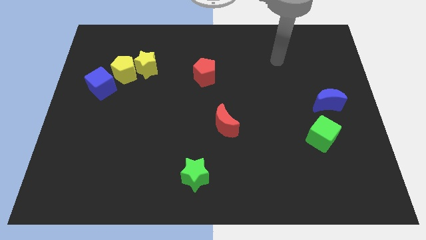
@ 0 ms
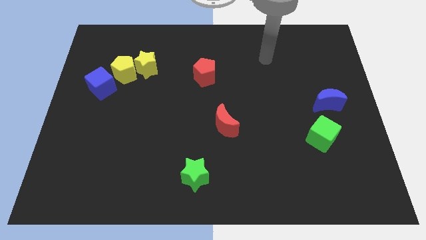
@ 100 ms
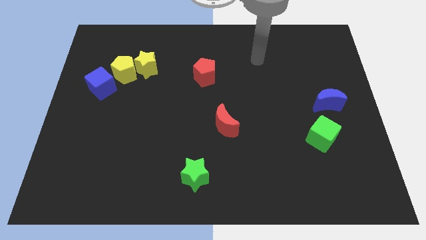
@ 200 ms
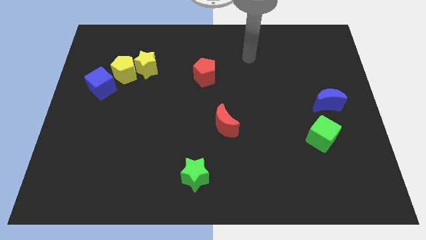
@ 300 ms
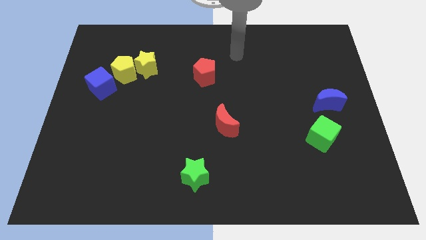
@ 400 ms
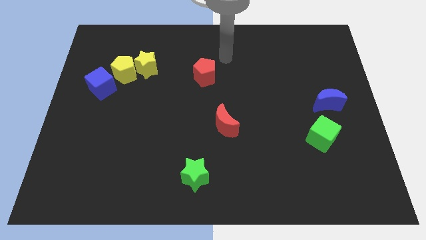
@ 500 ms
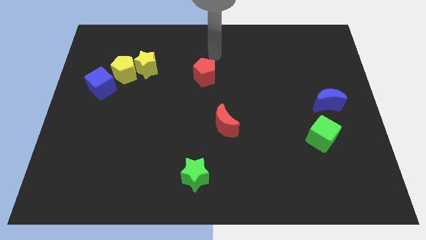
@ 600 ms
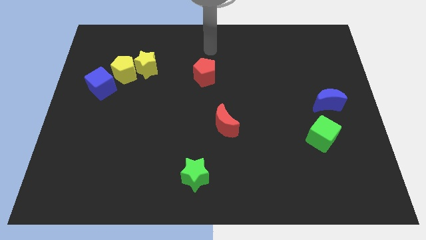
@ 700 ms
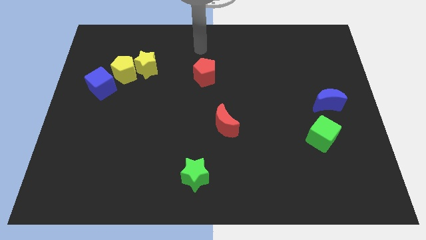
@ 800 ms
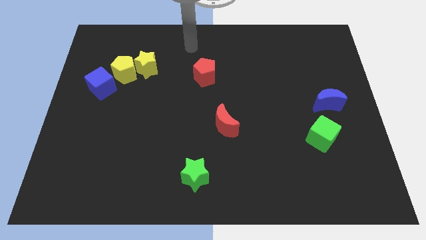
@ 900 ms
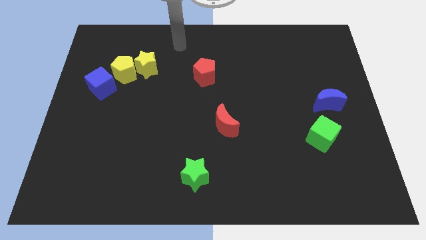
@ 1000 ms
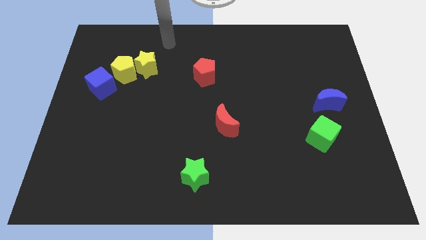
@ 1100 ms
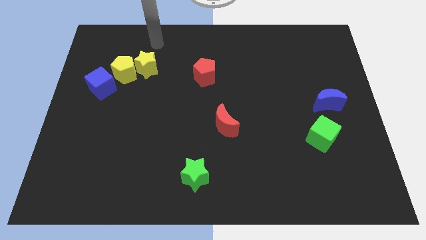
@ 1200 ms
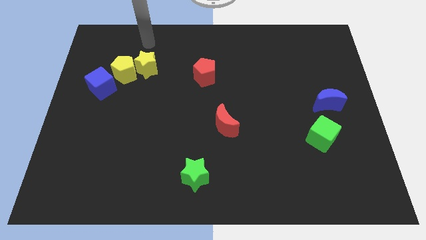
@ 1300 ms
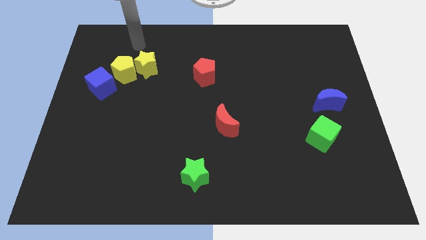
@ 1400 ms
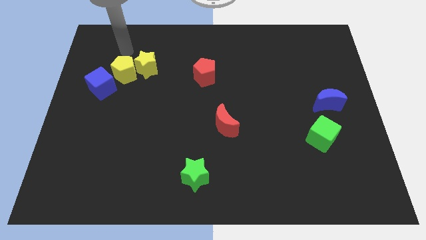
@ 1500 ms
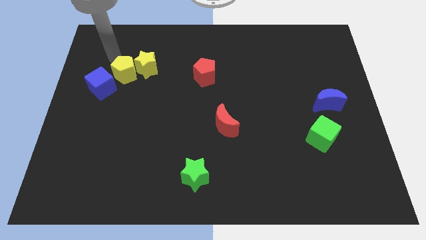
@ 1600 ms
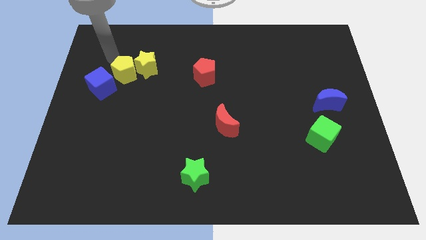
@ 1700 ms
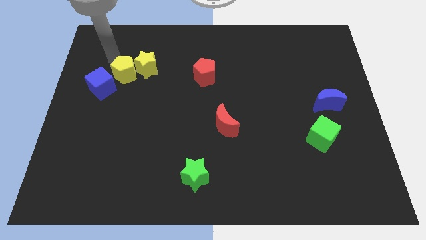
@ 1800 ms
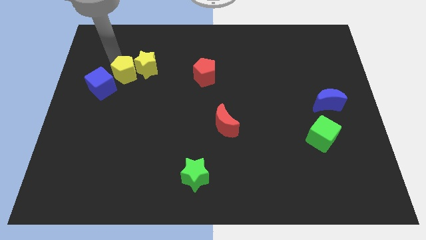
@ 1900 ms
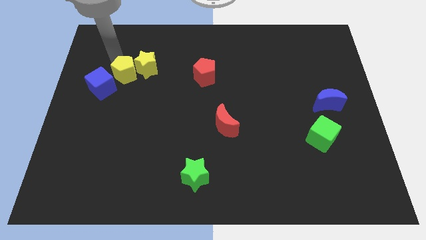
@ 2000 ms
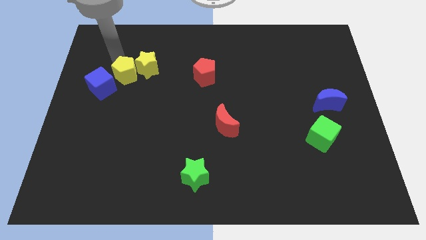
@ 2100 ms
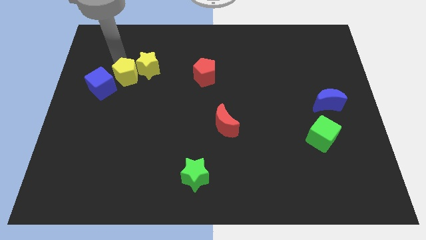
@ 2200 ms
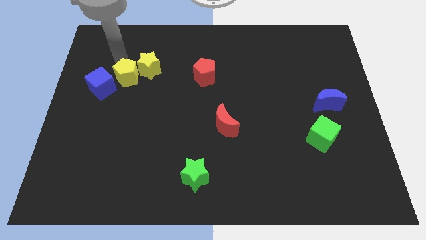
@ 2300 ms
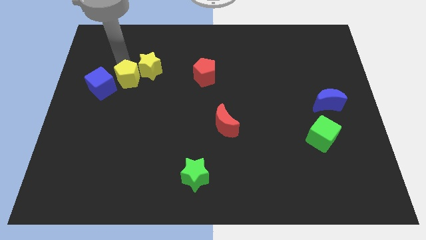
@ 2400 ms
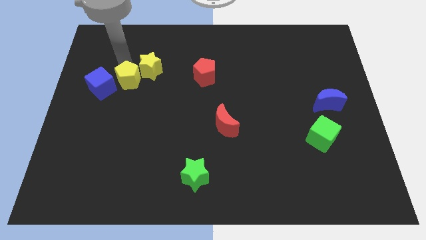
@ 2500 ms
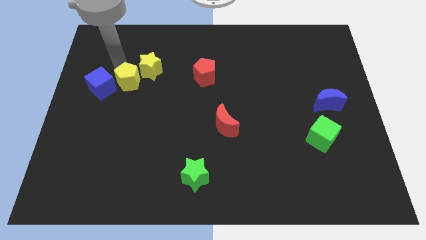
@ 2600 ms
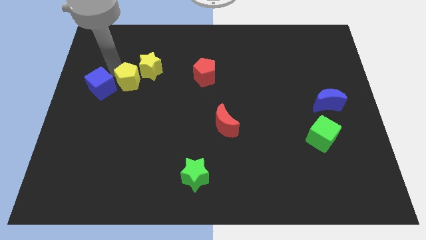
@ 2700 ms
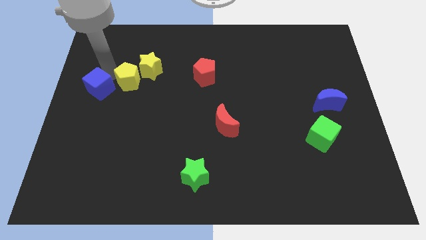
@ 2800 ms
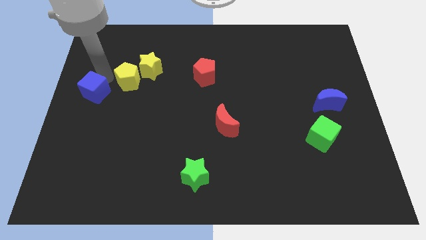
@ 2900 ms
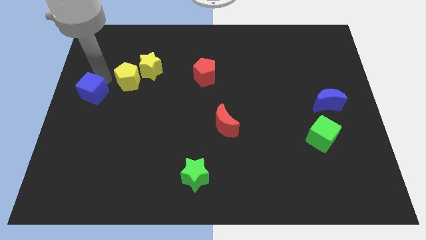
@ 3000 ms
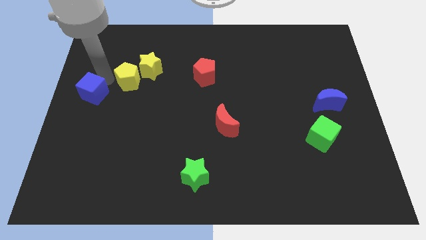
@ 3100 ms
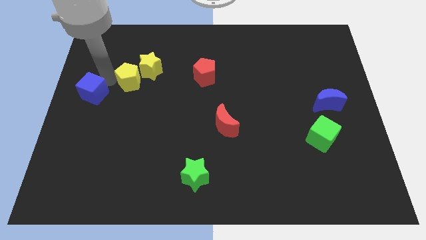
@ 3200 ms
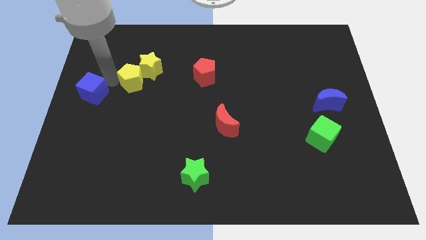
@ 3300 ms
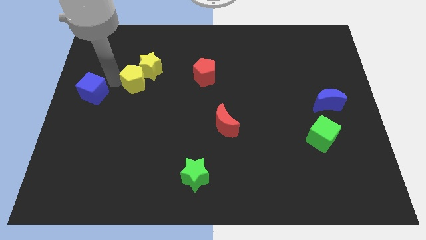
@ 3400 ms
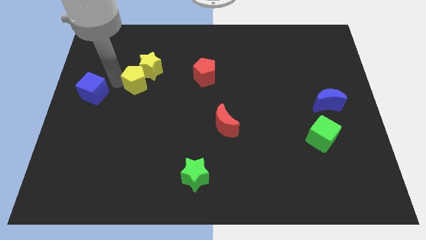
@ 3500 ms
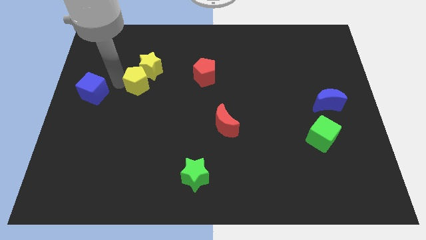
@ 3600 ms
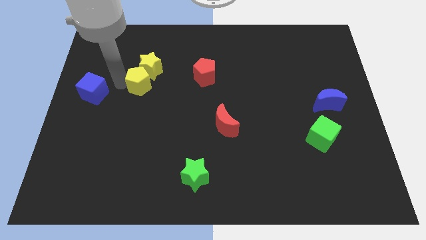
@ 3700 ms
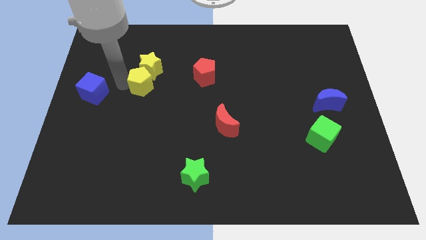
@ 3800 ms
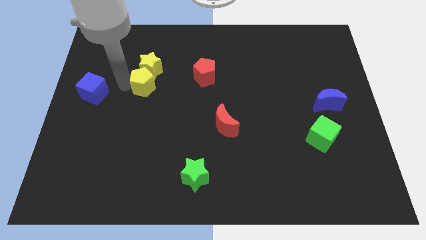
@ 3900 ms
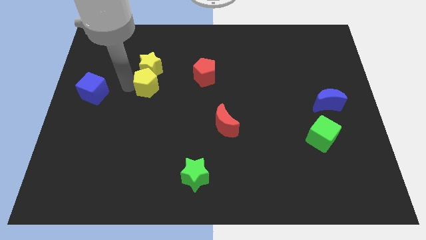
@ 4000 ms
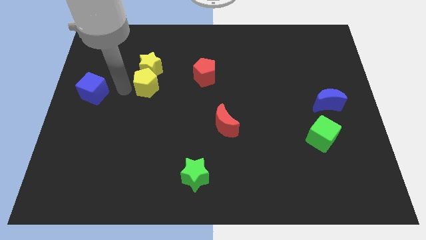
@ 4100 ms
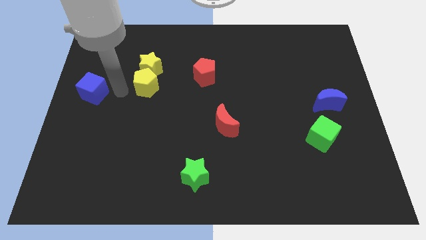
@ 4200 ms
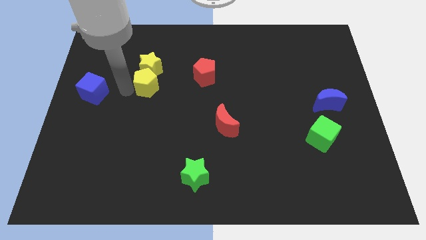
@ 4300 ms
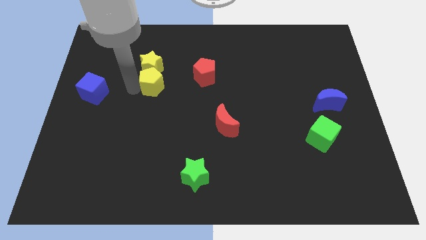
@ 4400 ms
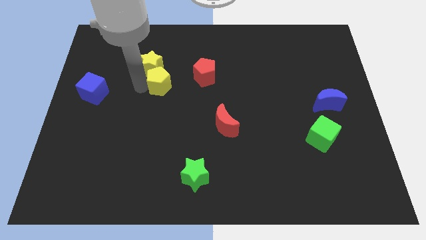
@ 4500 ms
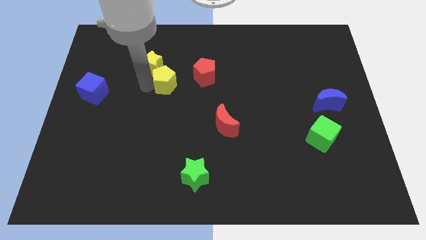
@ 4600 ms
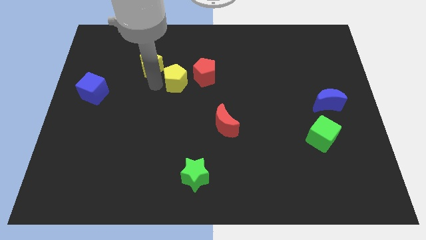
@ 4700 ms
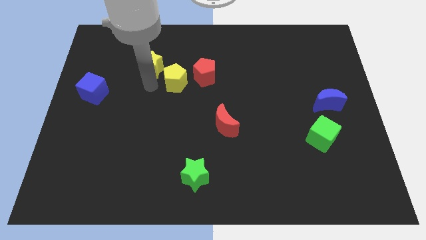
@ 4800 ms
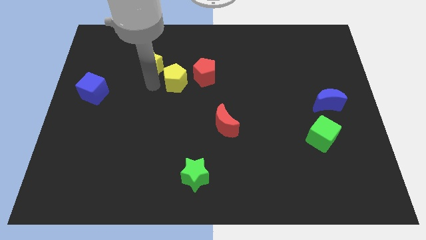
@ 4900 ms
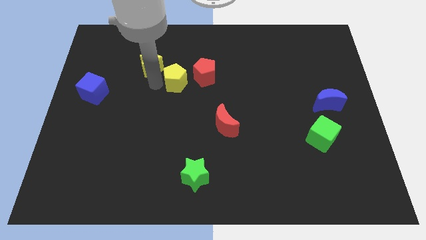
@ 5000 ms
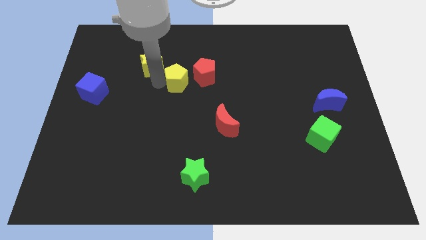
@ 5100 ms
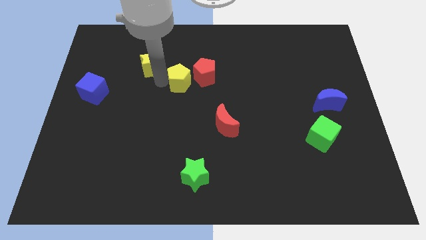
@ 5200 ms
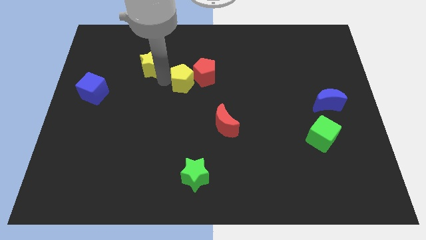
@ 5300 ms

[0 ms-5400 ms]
push the yellow pentagon close to the red pentagon

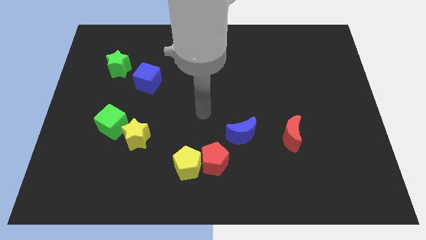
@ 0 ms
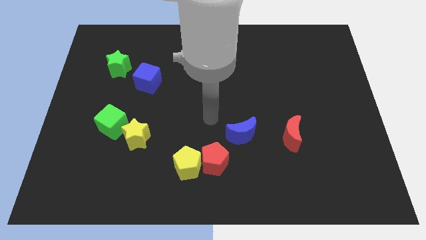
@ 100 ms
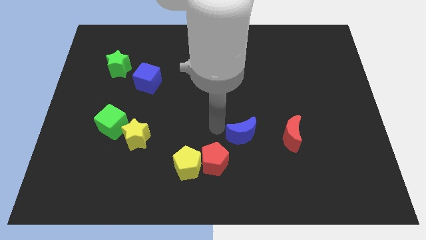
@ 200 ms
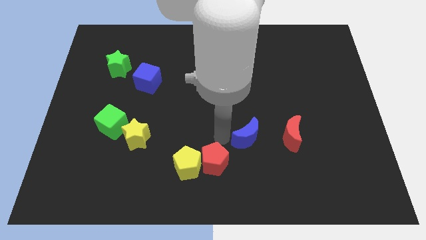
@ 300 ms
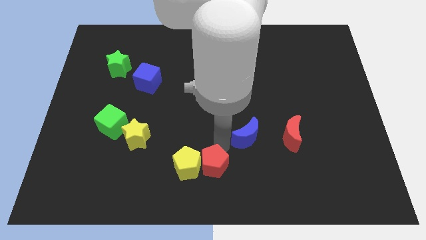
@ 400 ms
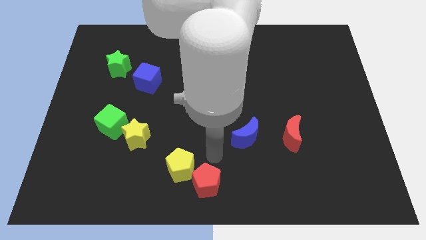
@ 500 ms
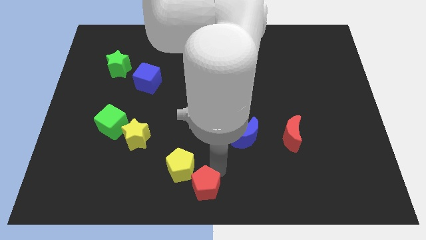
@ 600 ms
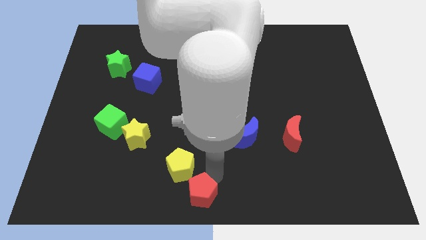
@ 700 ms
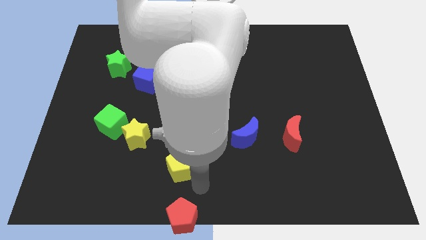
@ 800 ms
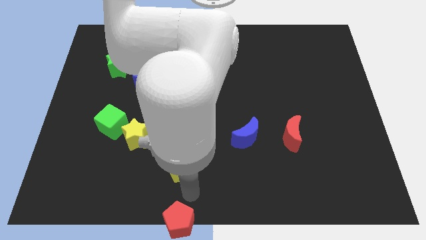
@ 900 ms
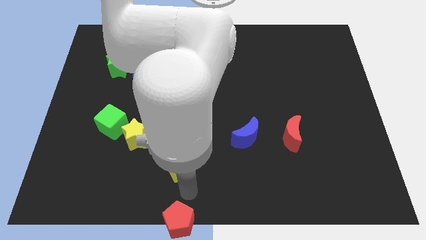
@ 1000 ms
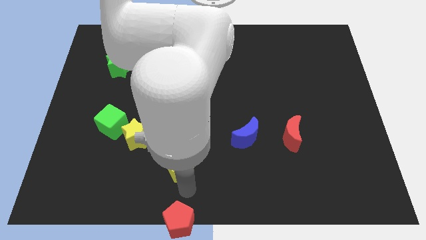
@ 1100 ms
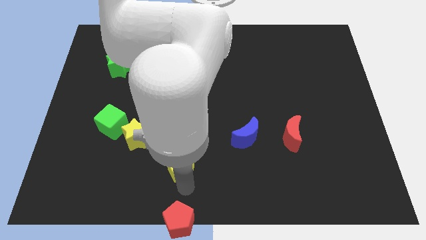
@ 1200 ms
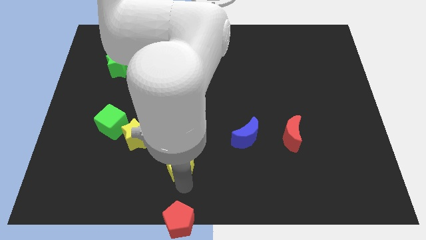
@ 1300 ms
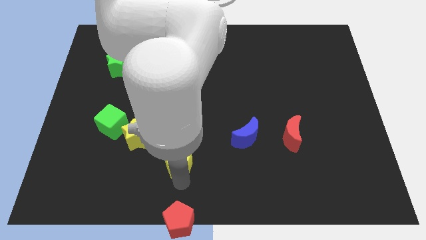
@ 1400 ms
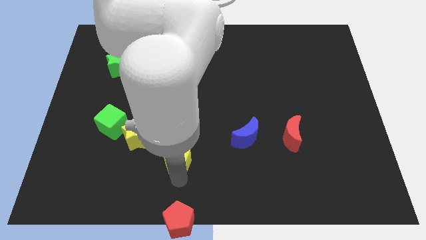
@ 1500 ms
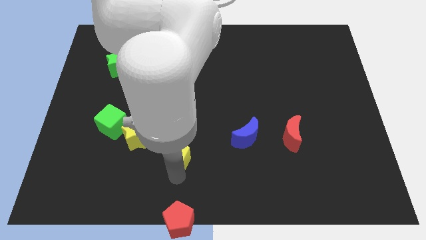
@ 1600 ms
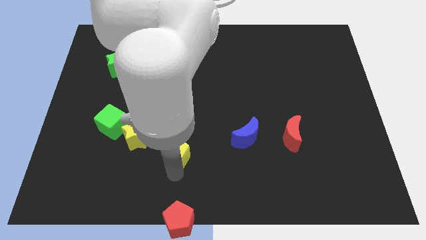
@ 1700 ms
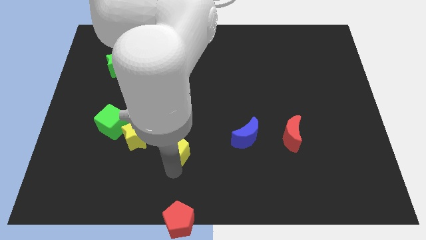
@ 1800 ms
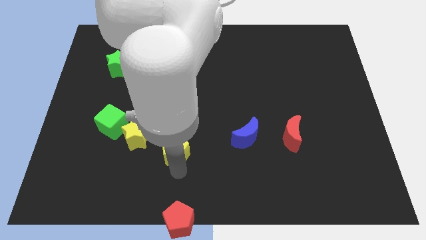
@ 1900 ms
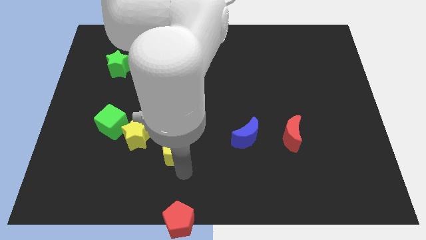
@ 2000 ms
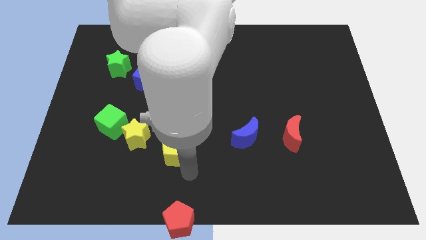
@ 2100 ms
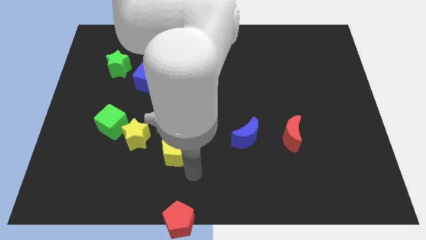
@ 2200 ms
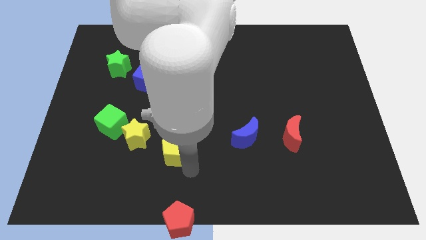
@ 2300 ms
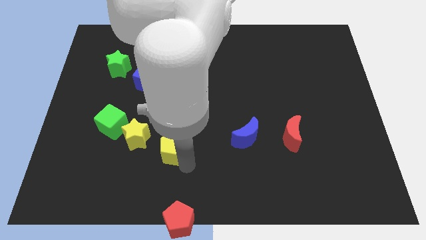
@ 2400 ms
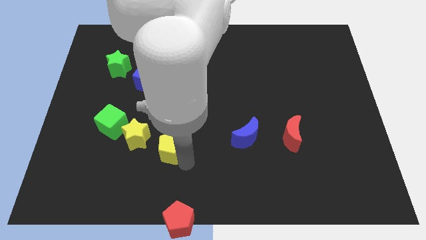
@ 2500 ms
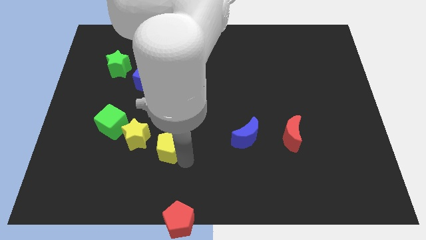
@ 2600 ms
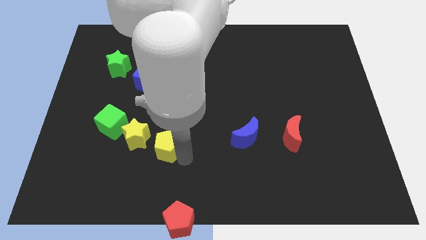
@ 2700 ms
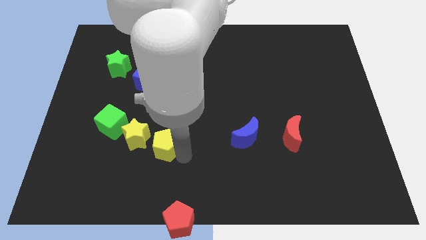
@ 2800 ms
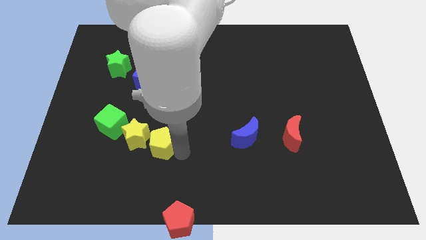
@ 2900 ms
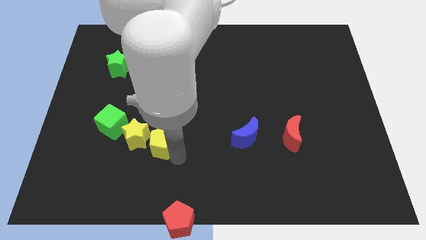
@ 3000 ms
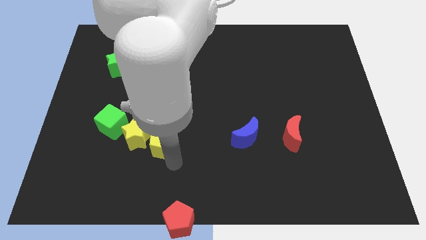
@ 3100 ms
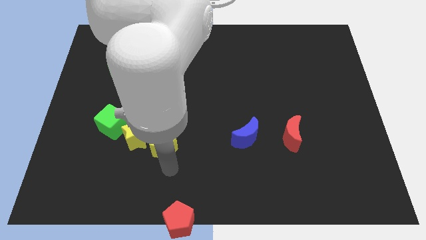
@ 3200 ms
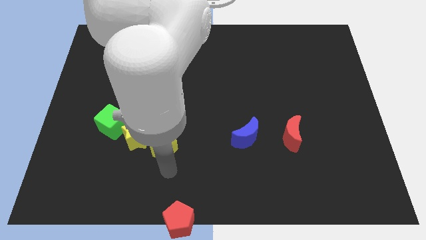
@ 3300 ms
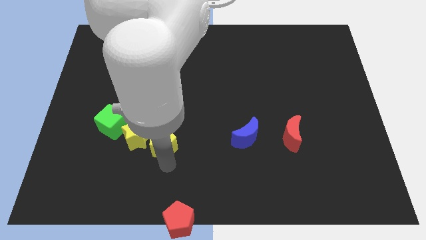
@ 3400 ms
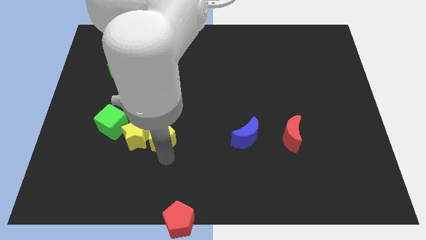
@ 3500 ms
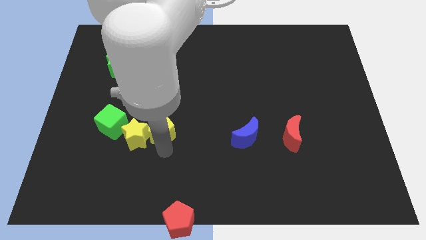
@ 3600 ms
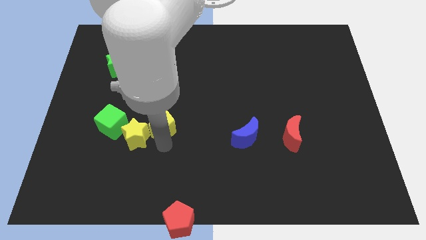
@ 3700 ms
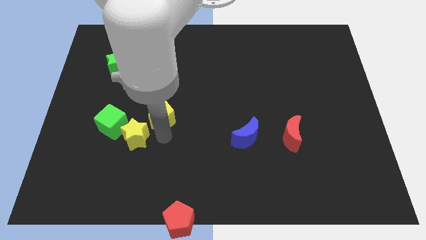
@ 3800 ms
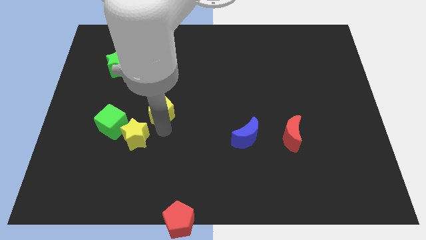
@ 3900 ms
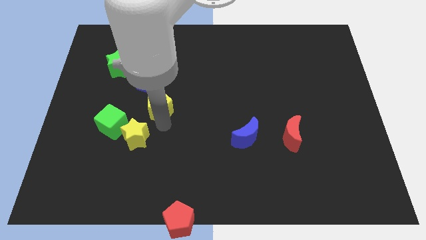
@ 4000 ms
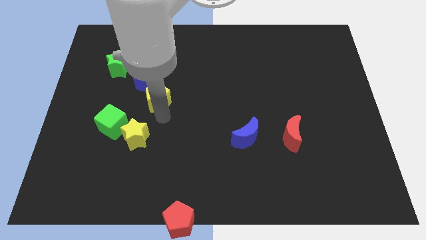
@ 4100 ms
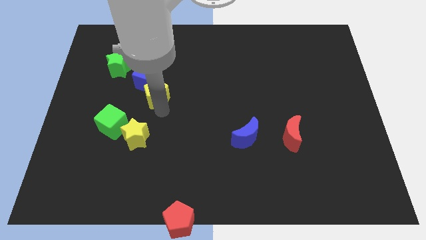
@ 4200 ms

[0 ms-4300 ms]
put the yellow pentagon towards the blue cube
